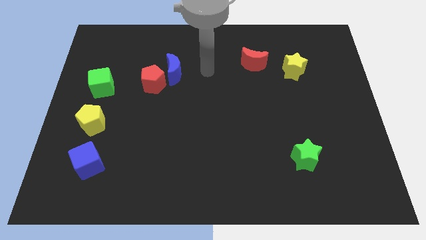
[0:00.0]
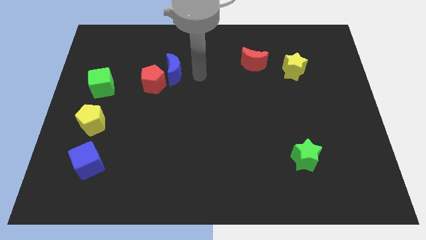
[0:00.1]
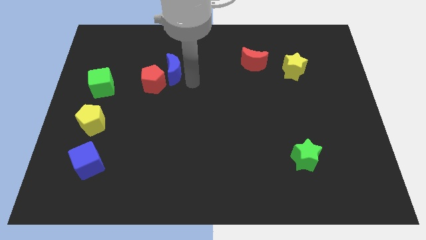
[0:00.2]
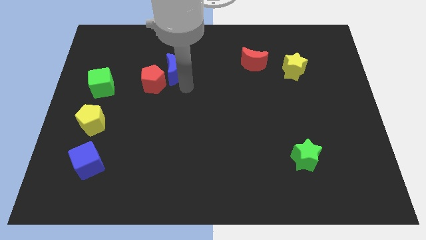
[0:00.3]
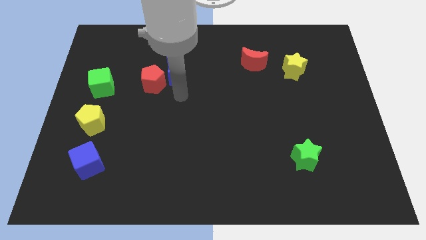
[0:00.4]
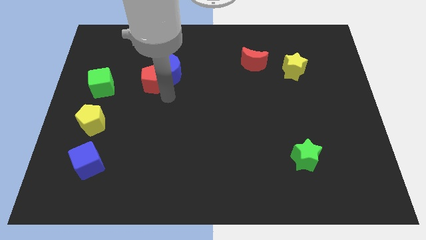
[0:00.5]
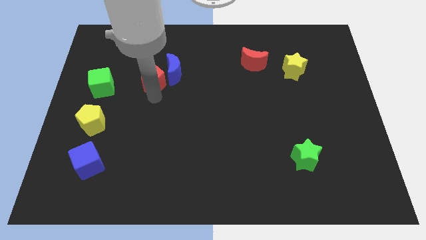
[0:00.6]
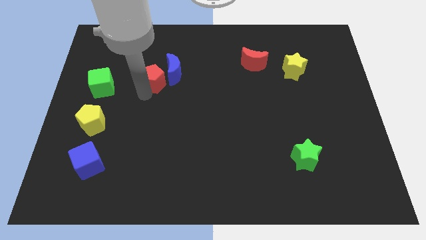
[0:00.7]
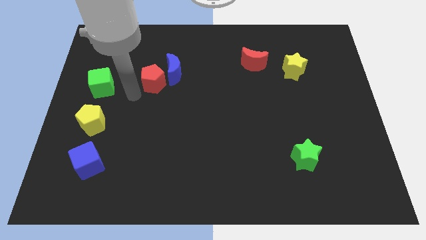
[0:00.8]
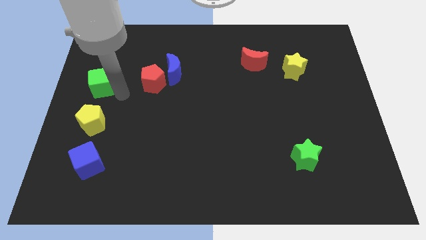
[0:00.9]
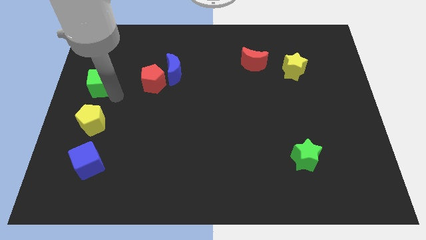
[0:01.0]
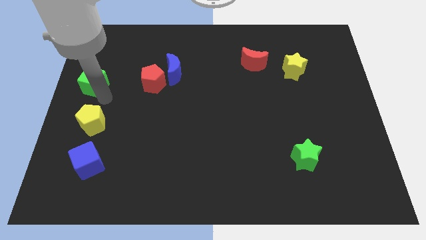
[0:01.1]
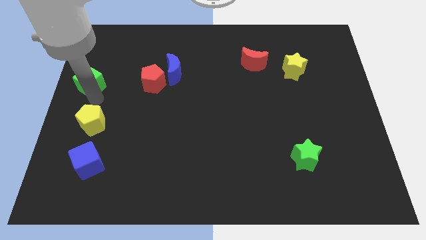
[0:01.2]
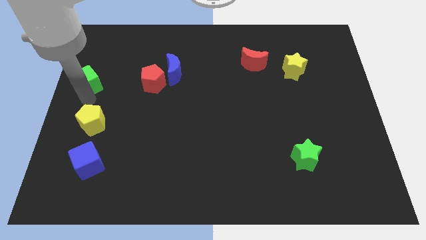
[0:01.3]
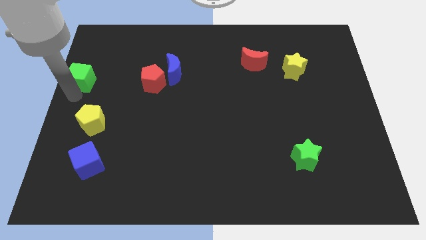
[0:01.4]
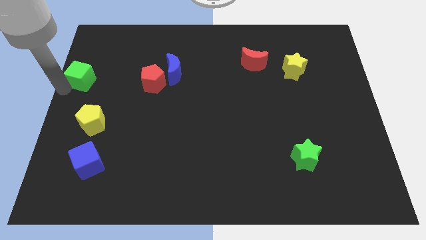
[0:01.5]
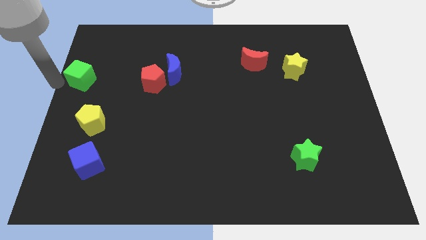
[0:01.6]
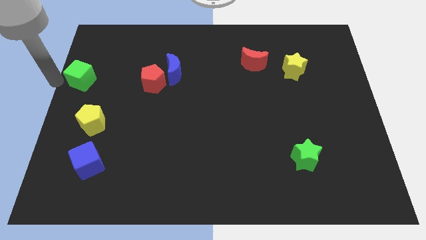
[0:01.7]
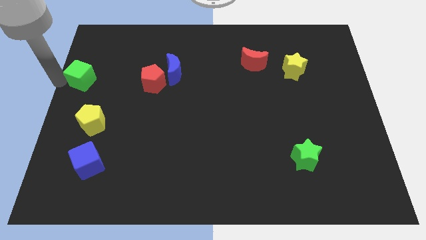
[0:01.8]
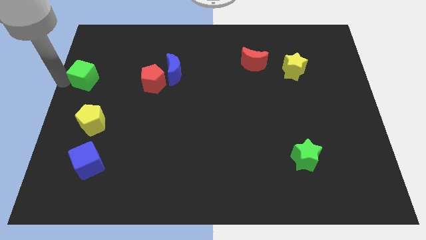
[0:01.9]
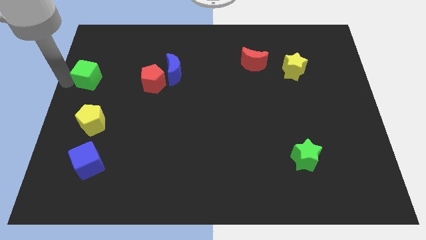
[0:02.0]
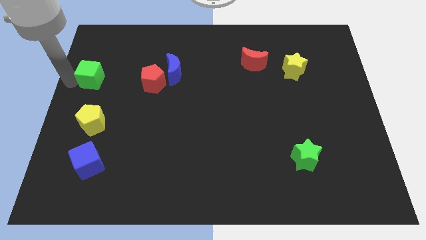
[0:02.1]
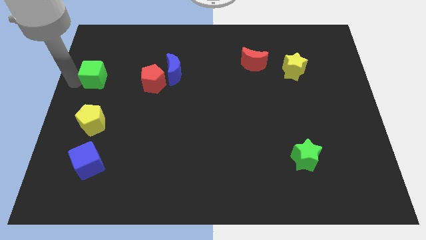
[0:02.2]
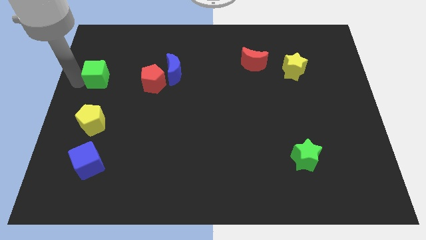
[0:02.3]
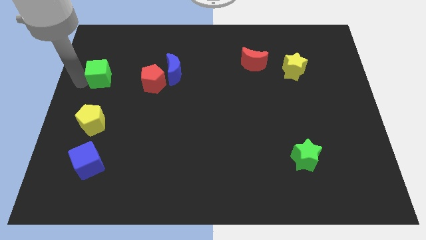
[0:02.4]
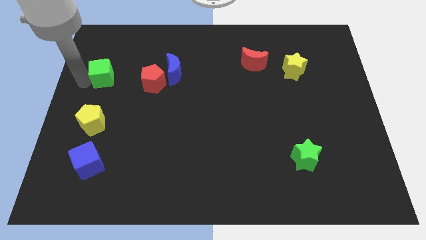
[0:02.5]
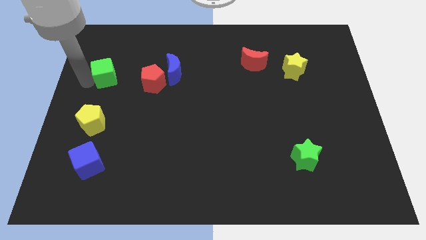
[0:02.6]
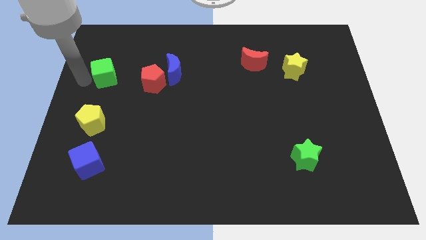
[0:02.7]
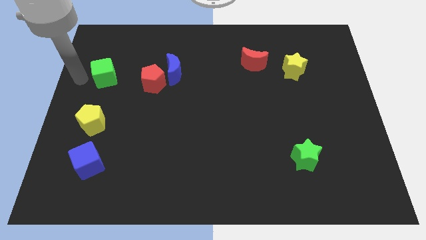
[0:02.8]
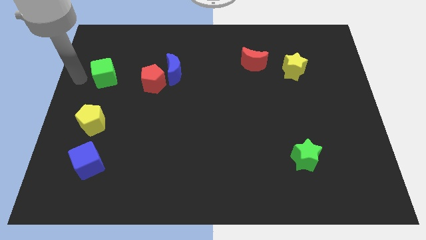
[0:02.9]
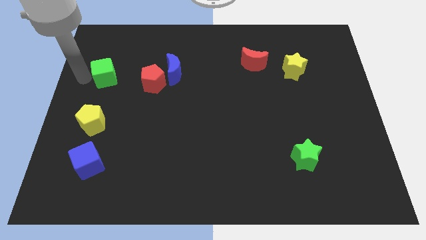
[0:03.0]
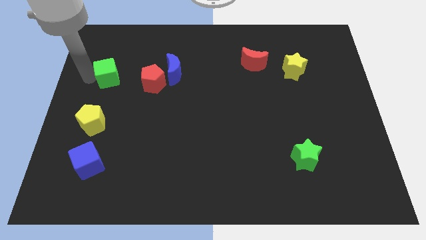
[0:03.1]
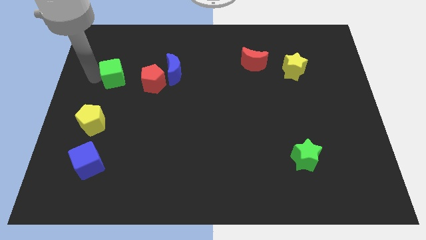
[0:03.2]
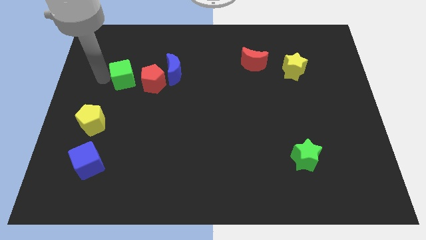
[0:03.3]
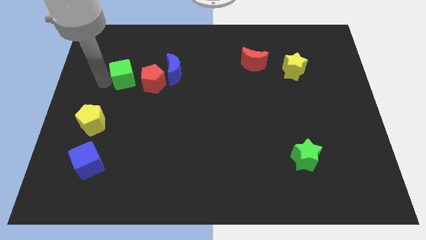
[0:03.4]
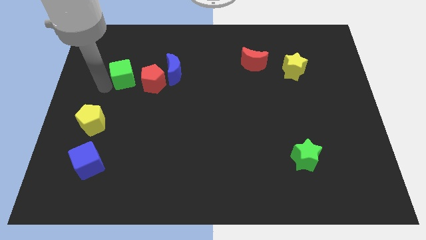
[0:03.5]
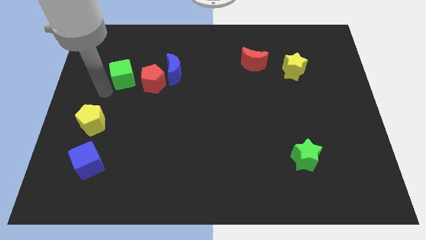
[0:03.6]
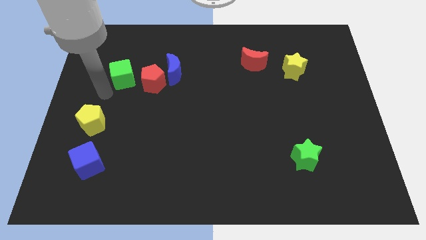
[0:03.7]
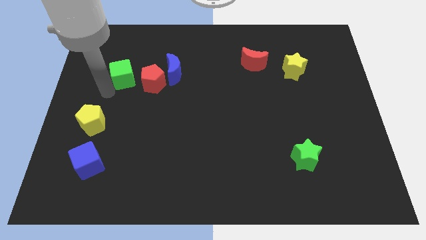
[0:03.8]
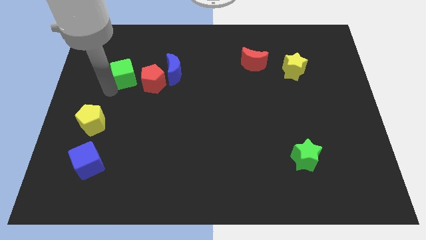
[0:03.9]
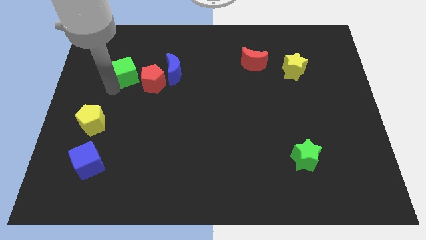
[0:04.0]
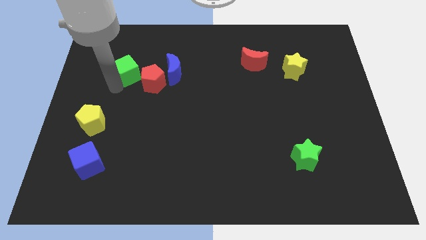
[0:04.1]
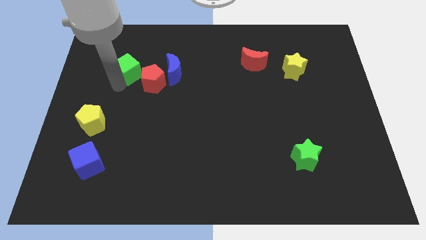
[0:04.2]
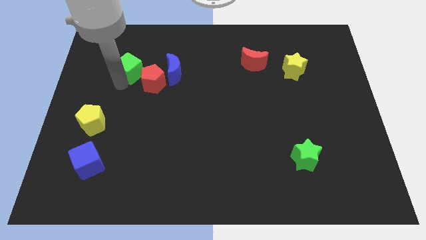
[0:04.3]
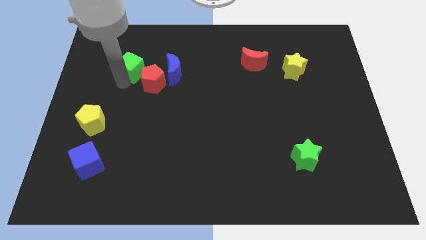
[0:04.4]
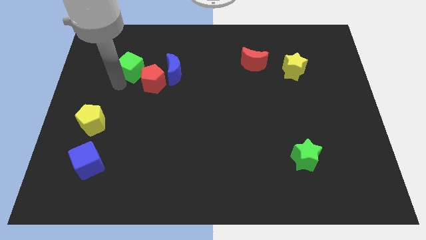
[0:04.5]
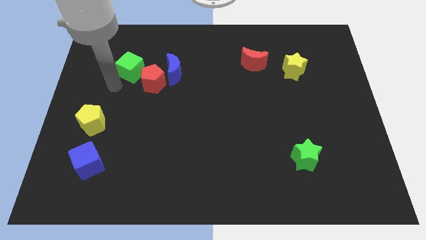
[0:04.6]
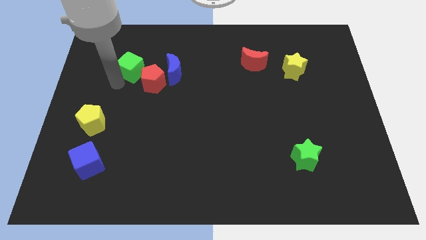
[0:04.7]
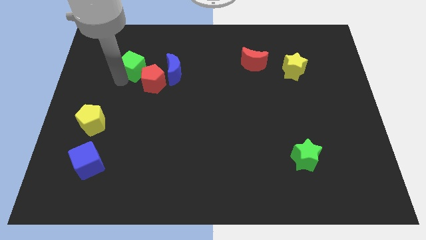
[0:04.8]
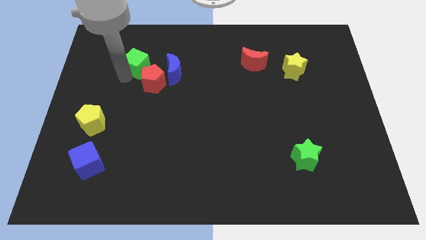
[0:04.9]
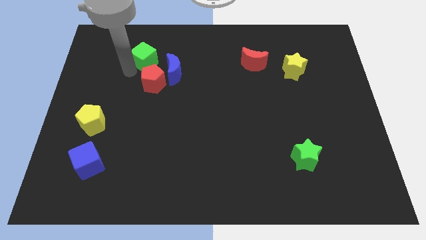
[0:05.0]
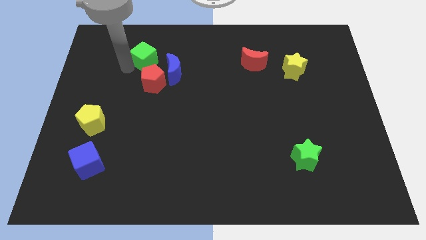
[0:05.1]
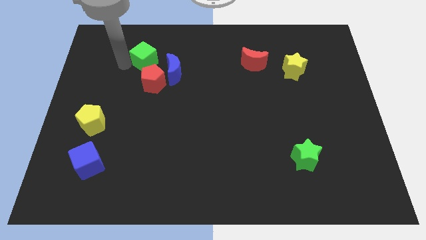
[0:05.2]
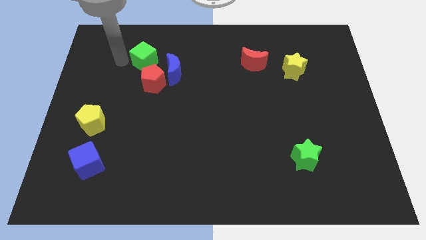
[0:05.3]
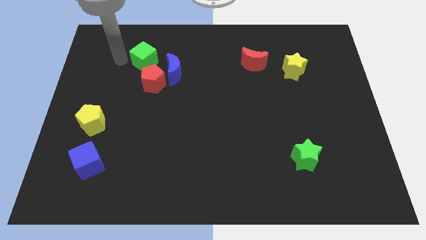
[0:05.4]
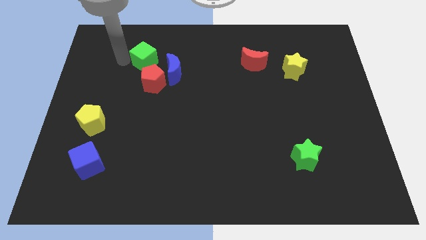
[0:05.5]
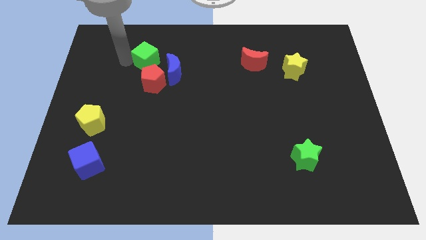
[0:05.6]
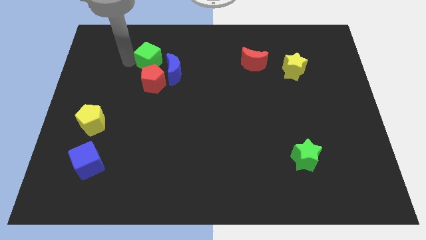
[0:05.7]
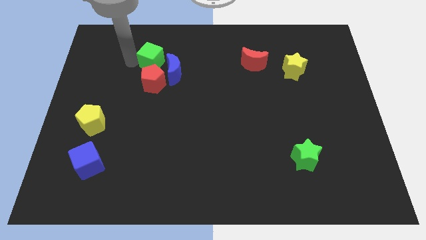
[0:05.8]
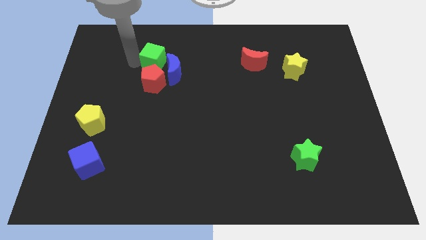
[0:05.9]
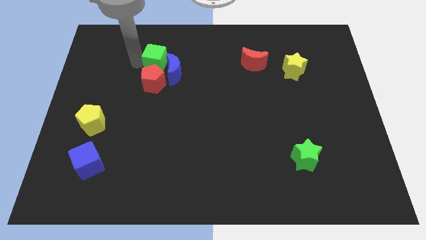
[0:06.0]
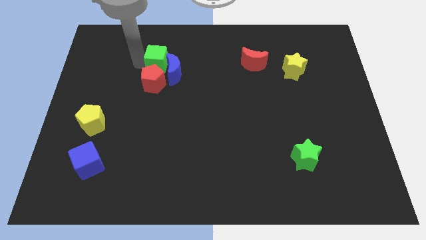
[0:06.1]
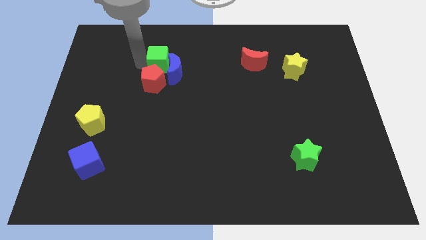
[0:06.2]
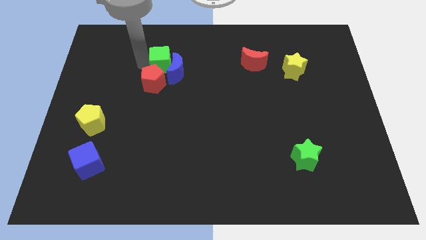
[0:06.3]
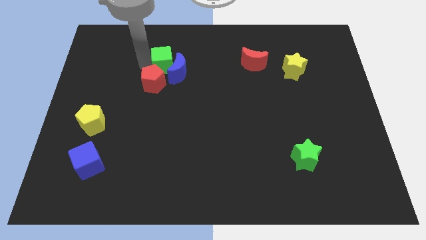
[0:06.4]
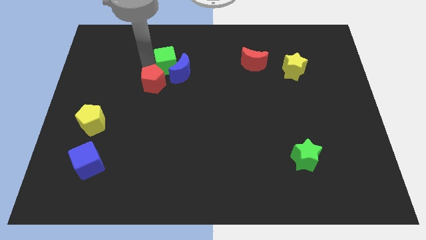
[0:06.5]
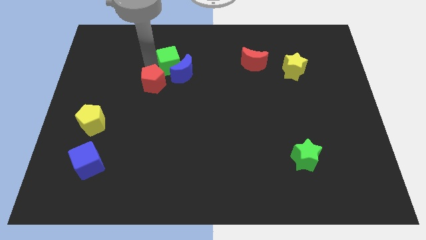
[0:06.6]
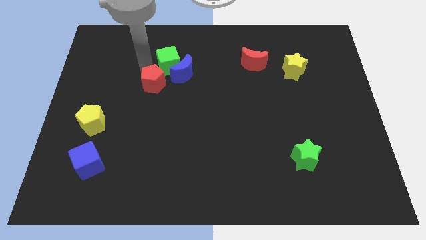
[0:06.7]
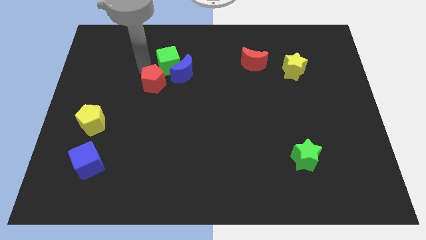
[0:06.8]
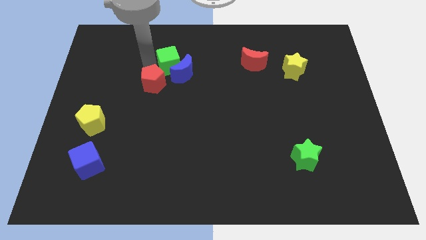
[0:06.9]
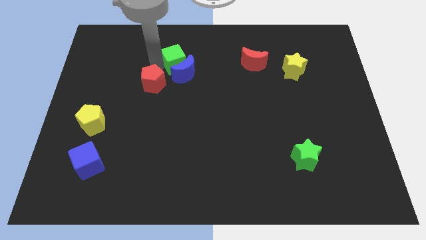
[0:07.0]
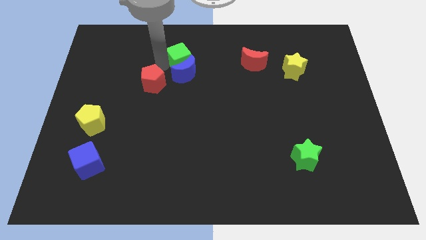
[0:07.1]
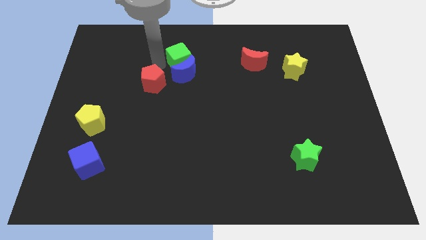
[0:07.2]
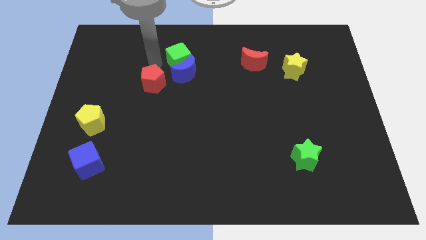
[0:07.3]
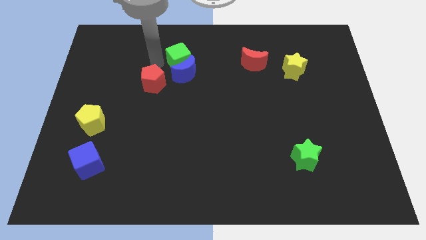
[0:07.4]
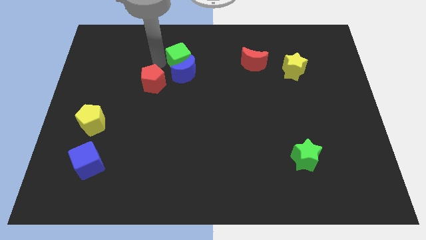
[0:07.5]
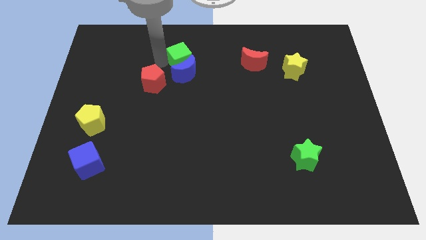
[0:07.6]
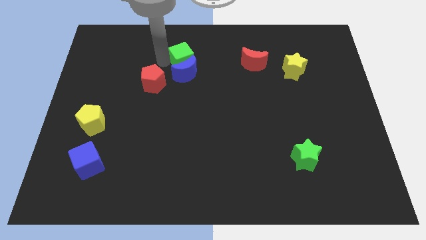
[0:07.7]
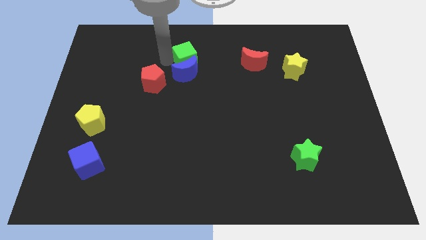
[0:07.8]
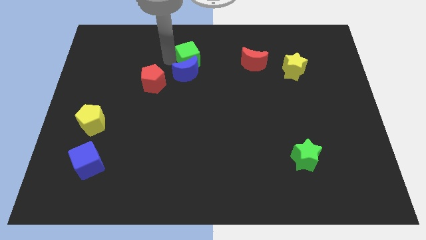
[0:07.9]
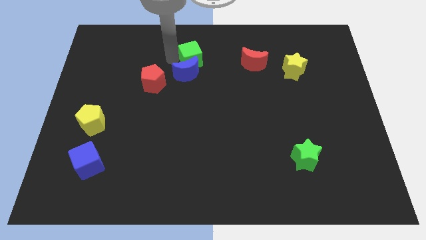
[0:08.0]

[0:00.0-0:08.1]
push the green cube left of the red moon
